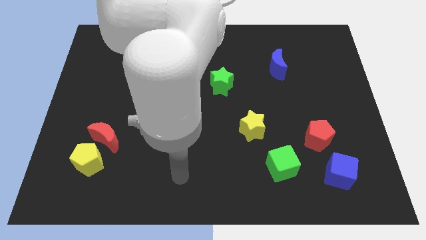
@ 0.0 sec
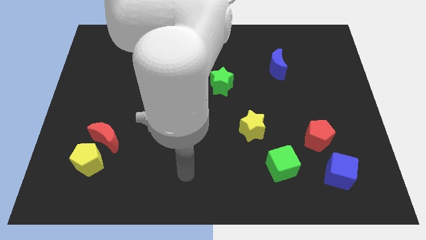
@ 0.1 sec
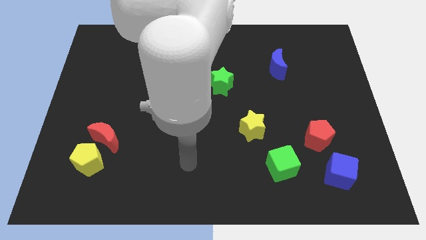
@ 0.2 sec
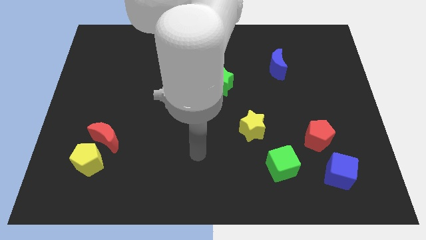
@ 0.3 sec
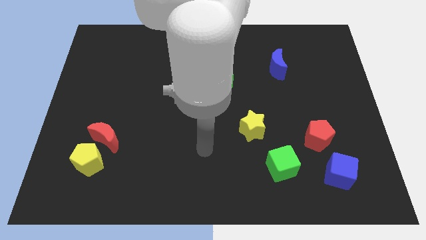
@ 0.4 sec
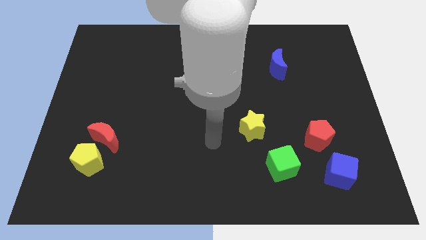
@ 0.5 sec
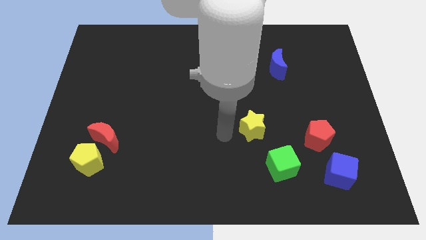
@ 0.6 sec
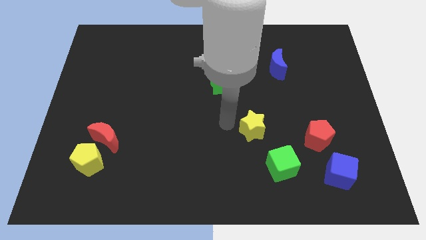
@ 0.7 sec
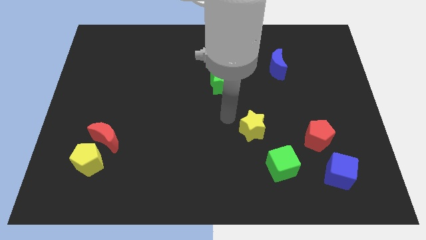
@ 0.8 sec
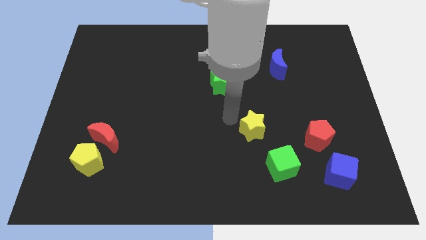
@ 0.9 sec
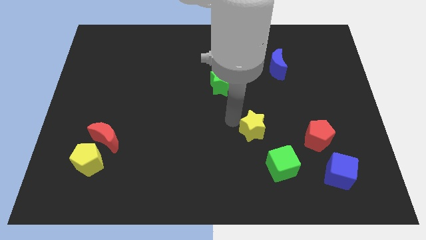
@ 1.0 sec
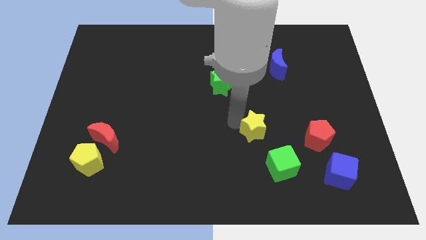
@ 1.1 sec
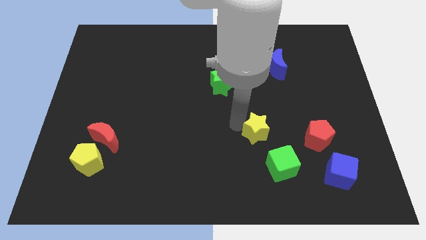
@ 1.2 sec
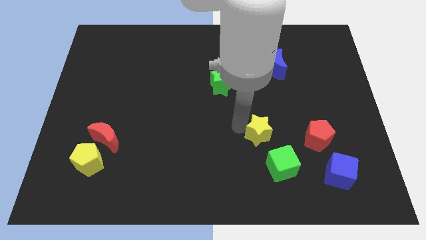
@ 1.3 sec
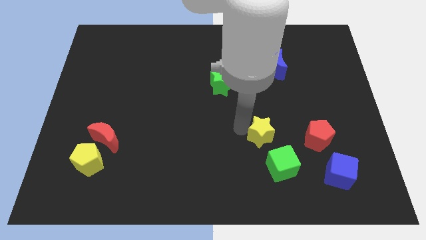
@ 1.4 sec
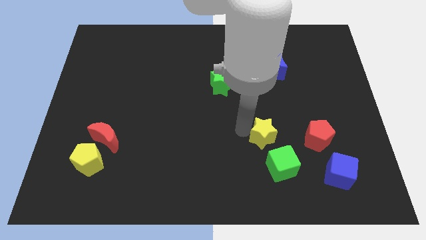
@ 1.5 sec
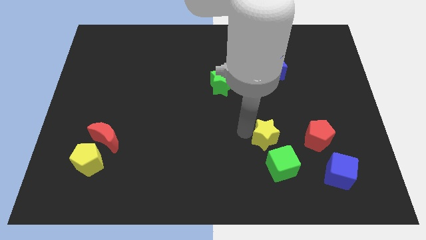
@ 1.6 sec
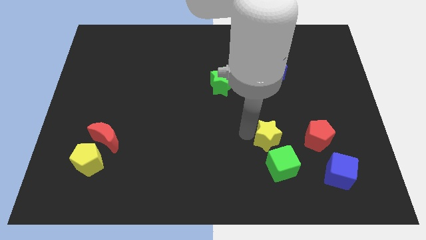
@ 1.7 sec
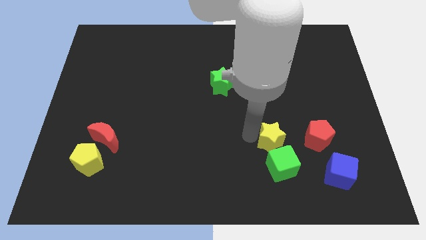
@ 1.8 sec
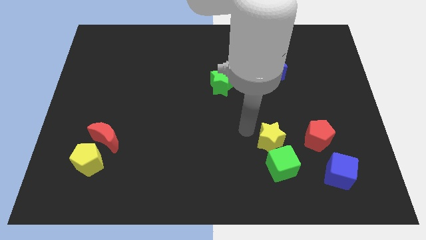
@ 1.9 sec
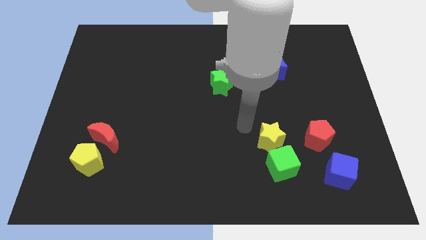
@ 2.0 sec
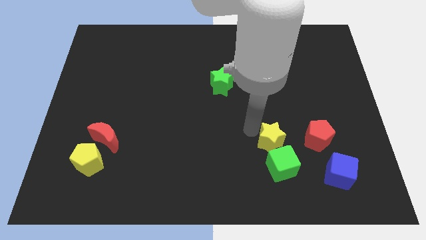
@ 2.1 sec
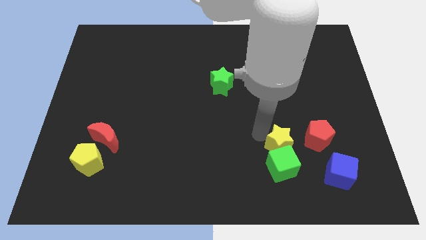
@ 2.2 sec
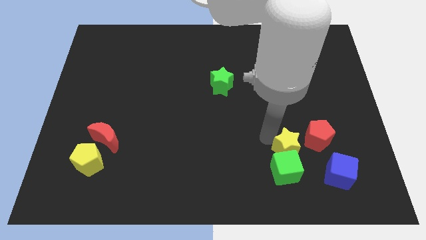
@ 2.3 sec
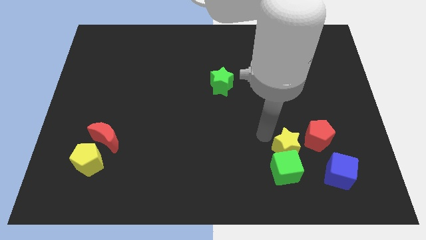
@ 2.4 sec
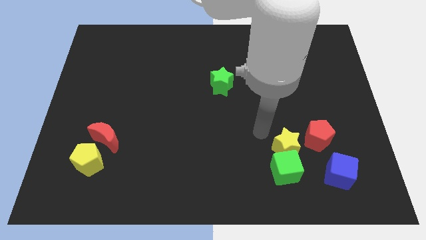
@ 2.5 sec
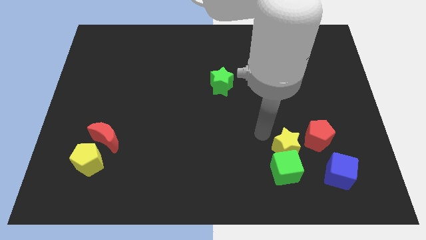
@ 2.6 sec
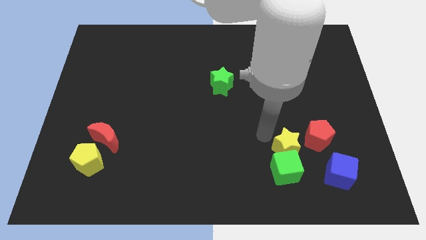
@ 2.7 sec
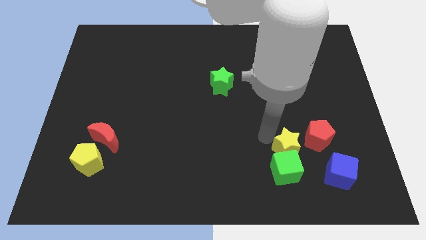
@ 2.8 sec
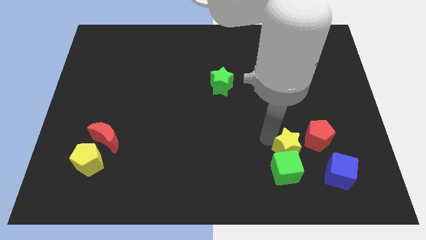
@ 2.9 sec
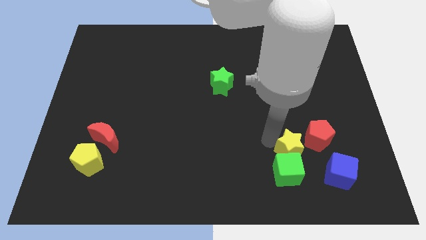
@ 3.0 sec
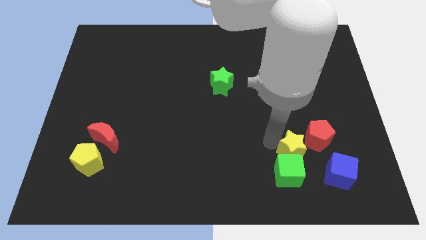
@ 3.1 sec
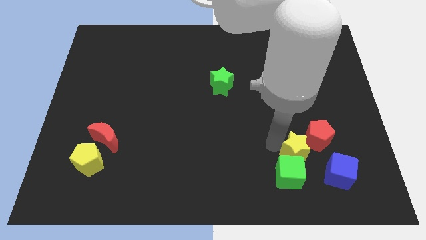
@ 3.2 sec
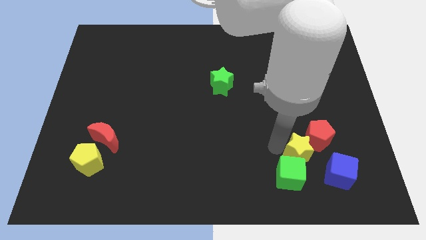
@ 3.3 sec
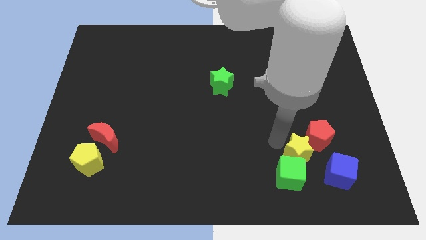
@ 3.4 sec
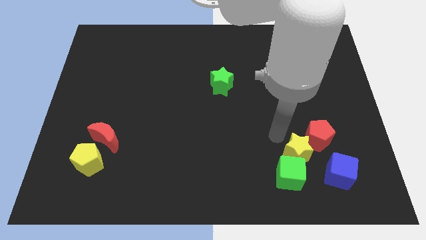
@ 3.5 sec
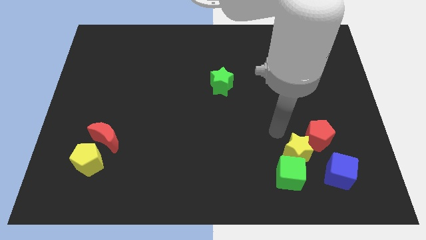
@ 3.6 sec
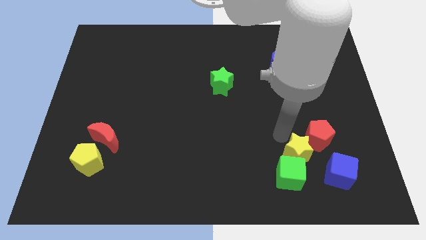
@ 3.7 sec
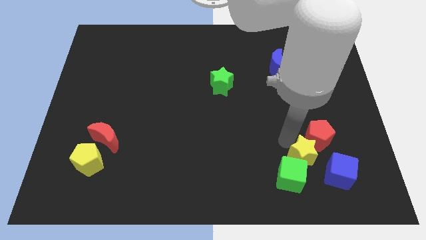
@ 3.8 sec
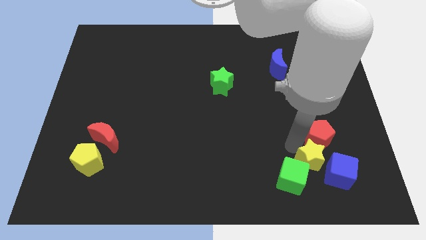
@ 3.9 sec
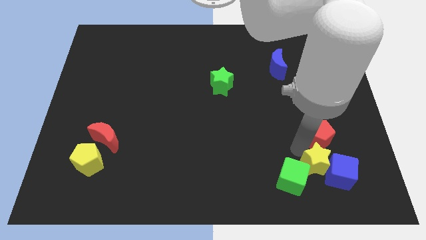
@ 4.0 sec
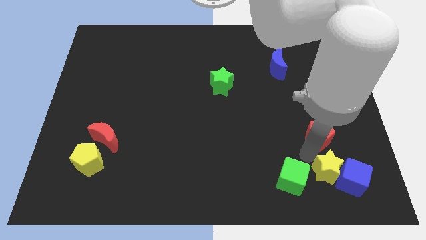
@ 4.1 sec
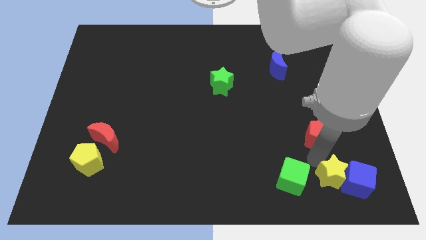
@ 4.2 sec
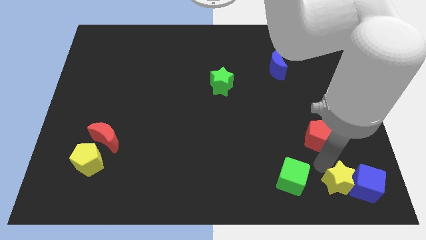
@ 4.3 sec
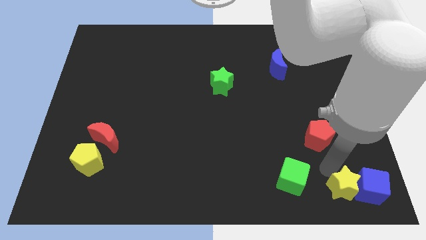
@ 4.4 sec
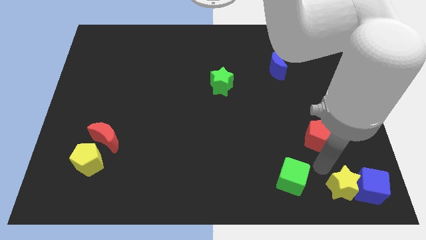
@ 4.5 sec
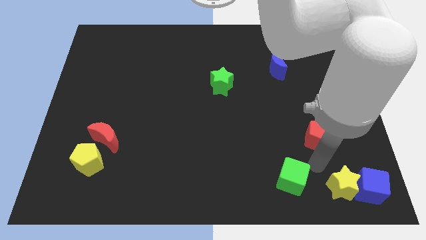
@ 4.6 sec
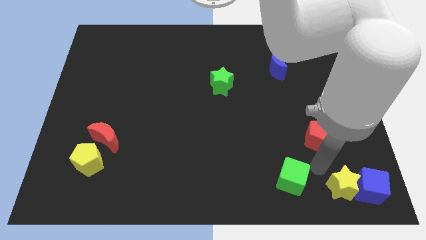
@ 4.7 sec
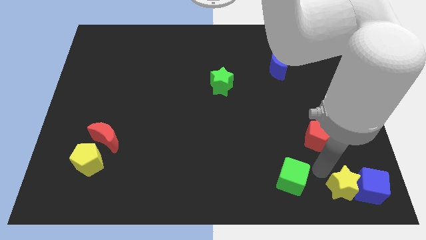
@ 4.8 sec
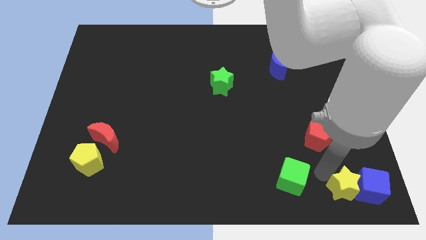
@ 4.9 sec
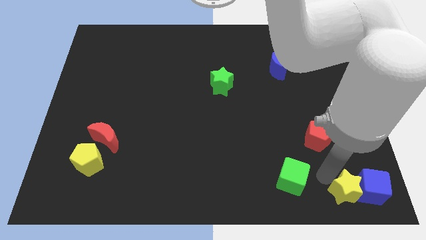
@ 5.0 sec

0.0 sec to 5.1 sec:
push the yellow star to the bottom right of the board
